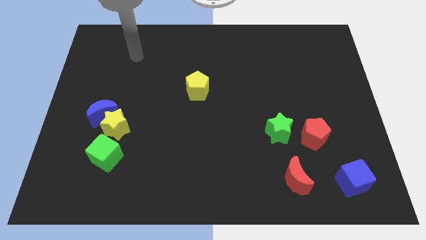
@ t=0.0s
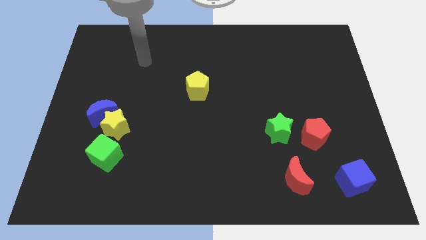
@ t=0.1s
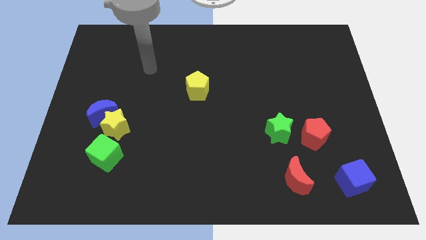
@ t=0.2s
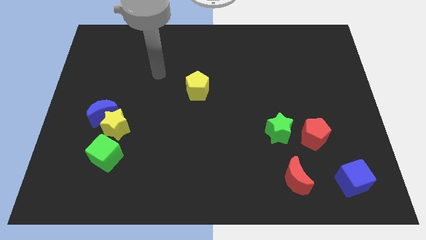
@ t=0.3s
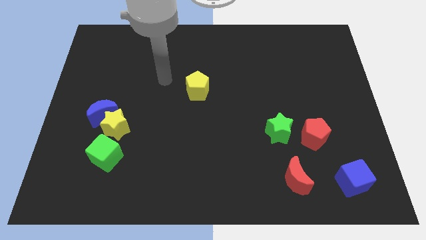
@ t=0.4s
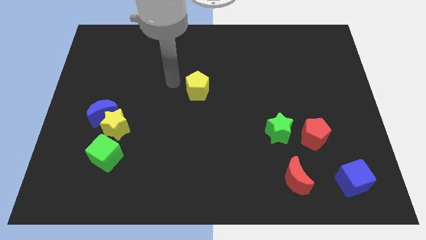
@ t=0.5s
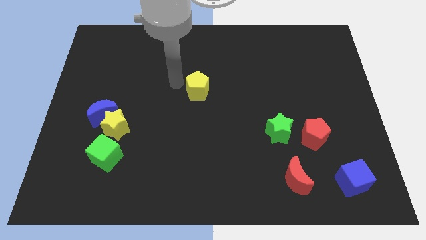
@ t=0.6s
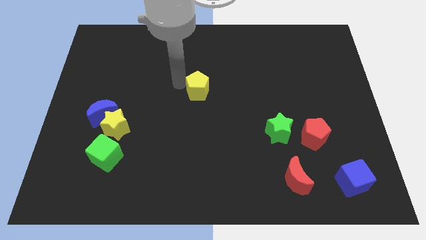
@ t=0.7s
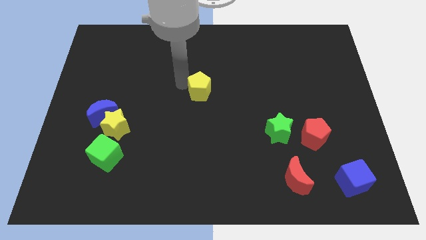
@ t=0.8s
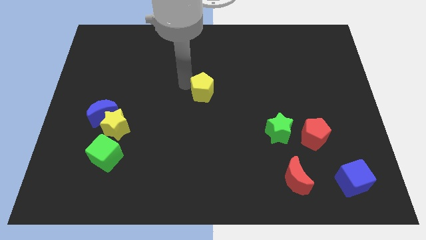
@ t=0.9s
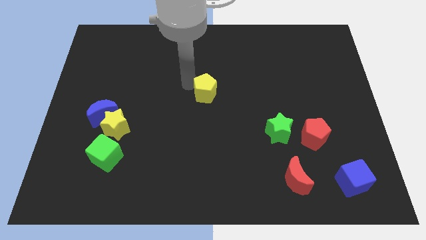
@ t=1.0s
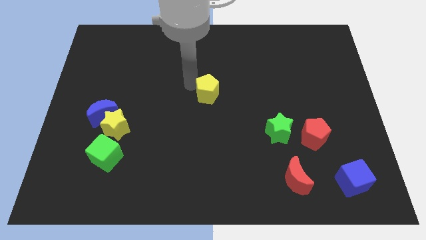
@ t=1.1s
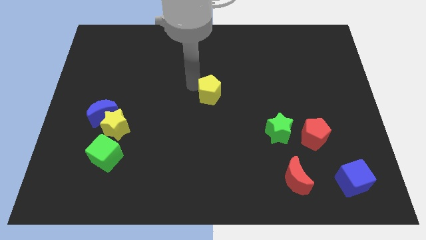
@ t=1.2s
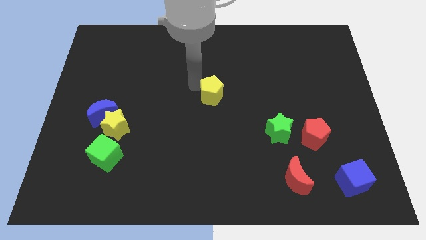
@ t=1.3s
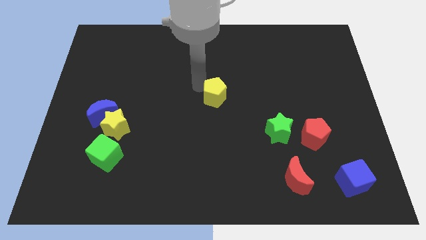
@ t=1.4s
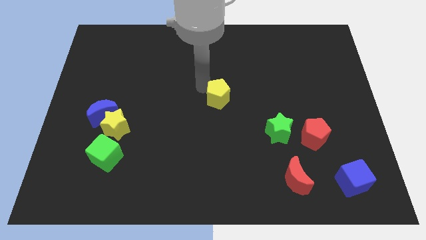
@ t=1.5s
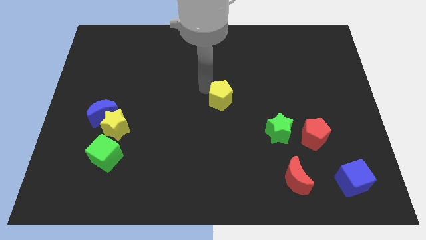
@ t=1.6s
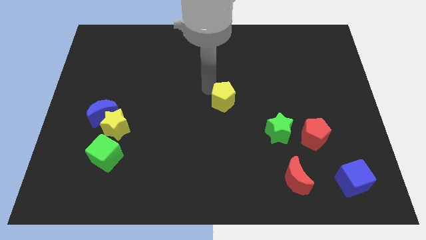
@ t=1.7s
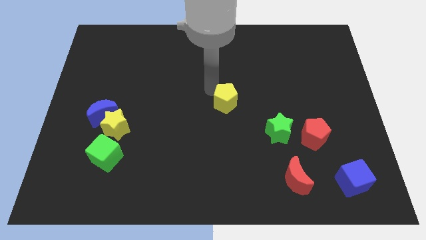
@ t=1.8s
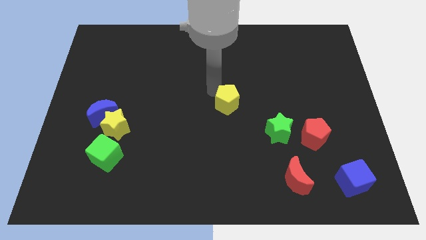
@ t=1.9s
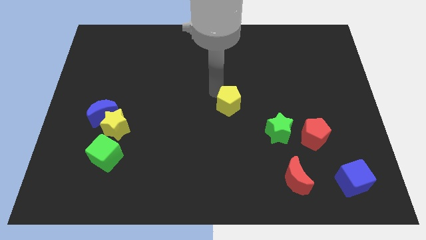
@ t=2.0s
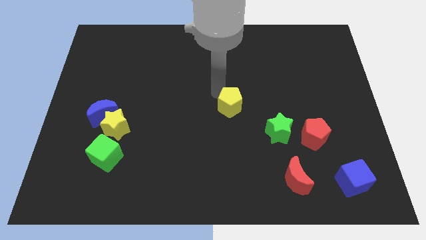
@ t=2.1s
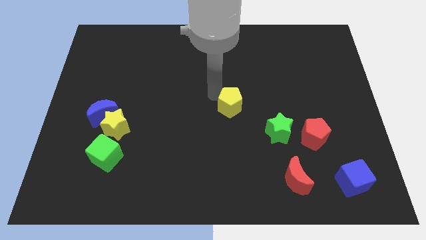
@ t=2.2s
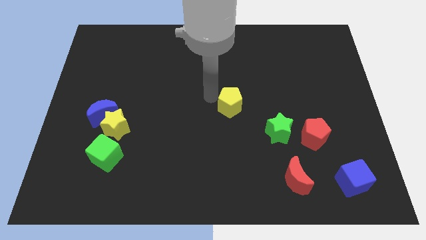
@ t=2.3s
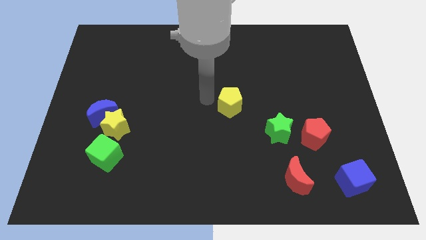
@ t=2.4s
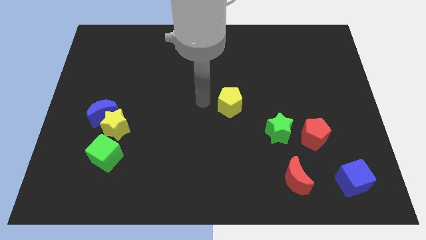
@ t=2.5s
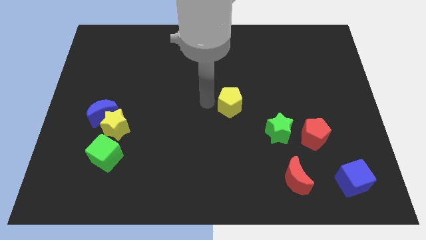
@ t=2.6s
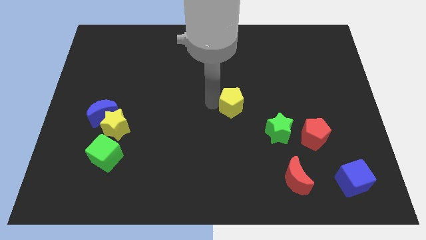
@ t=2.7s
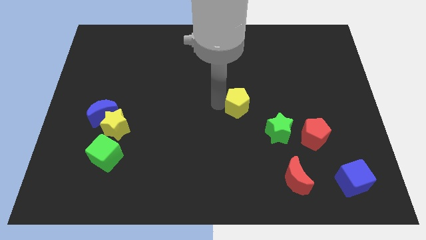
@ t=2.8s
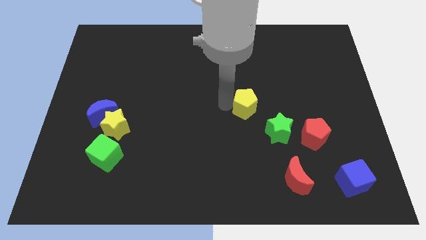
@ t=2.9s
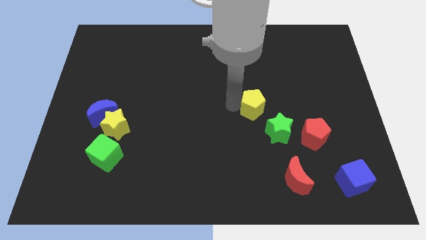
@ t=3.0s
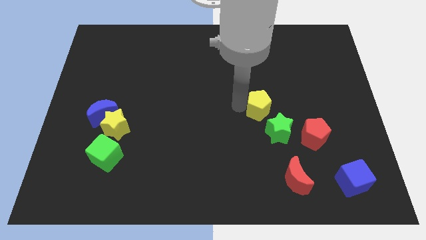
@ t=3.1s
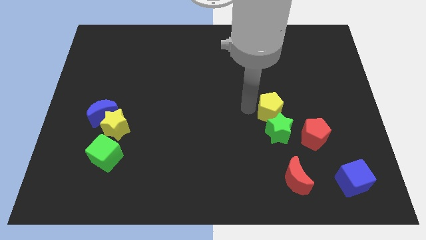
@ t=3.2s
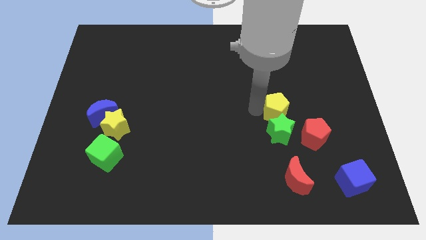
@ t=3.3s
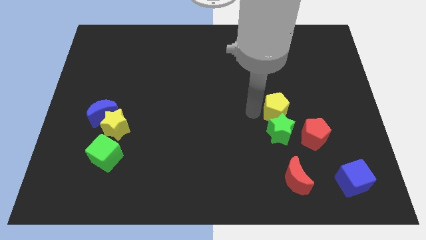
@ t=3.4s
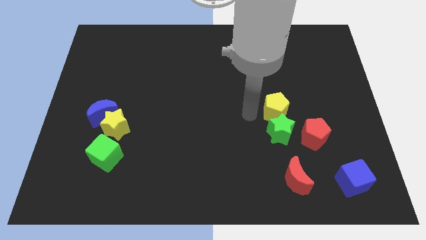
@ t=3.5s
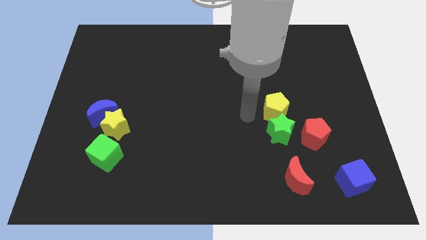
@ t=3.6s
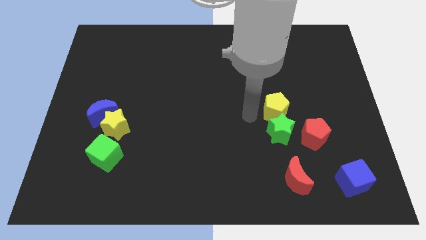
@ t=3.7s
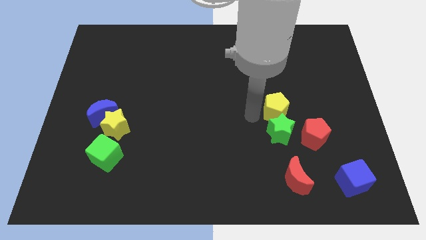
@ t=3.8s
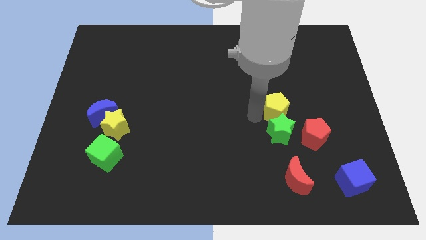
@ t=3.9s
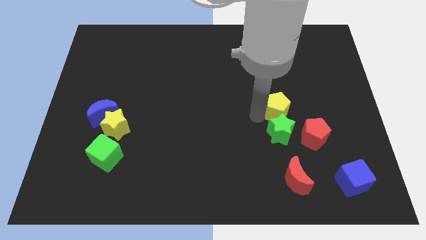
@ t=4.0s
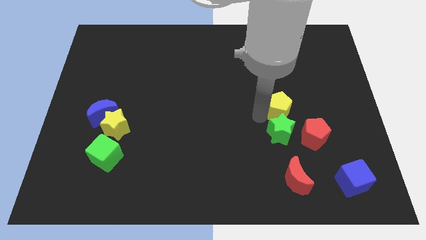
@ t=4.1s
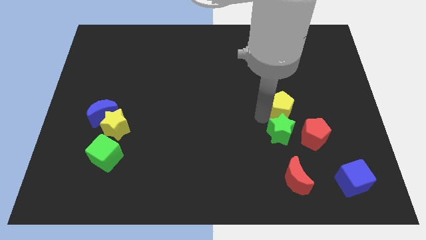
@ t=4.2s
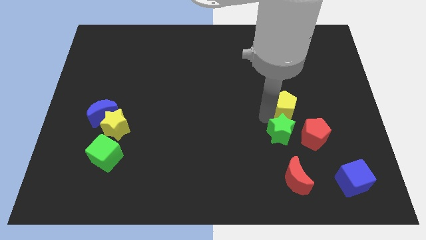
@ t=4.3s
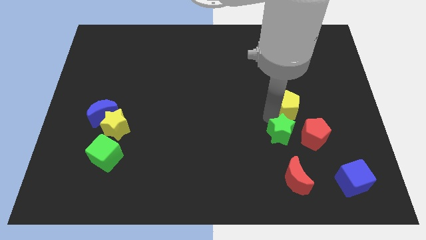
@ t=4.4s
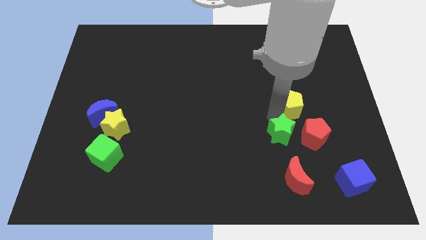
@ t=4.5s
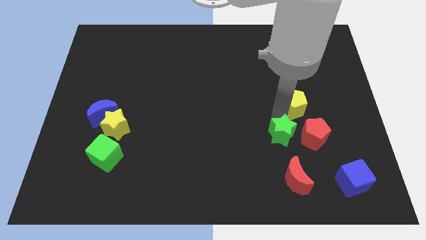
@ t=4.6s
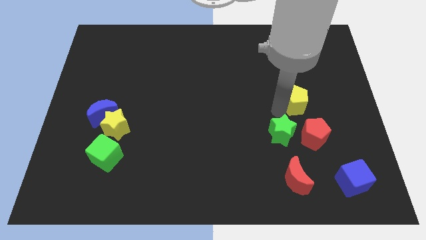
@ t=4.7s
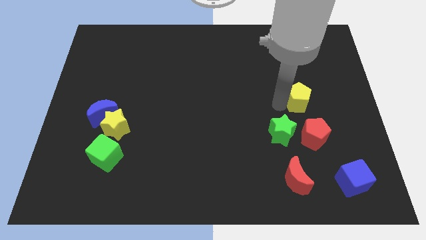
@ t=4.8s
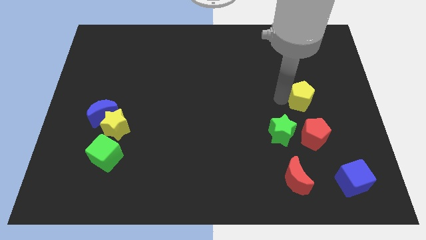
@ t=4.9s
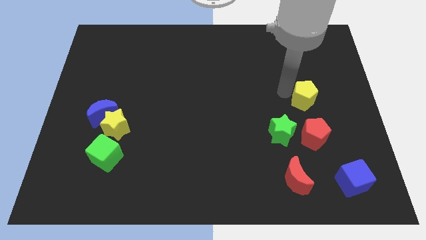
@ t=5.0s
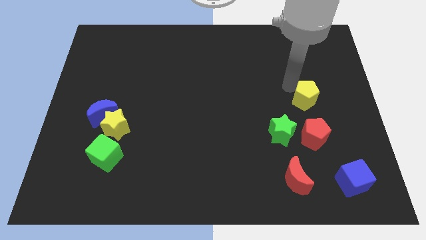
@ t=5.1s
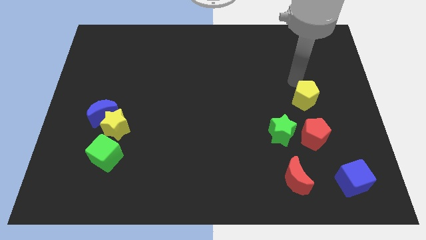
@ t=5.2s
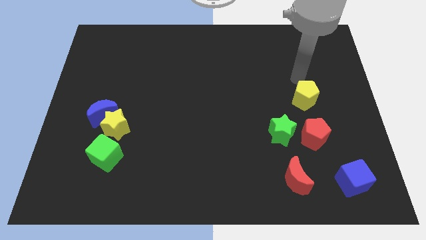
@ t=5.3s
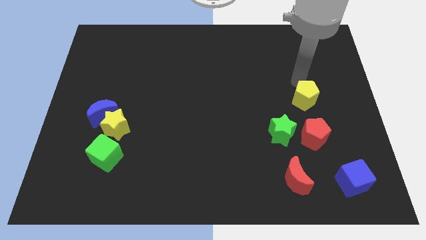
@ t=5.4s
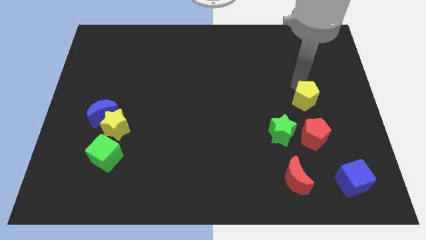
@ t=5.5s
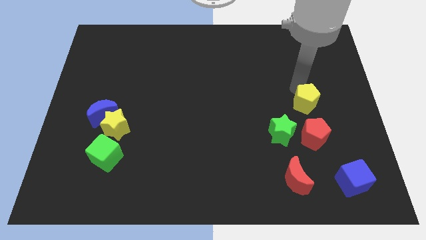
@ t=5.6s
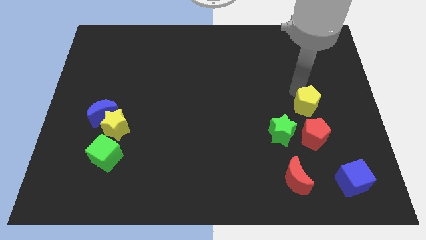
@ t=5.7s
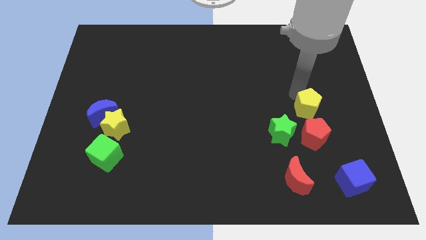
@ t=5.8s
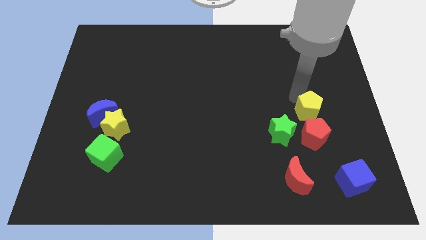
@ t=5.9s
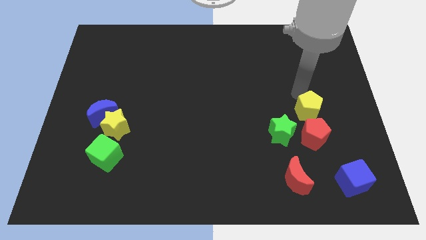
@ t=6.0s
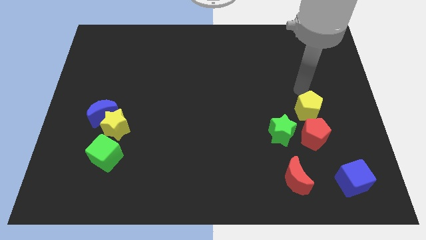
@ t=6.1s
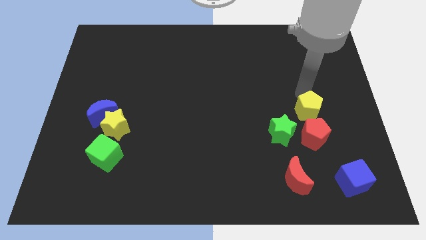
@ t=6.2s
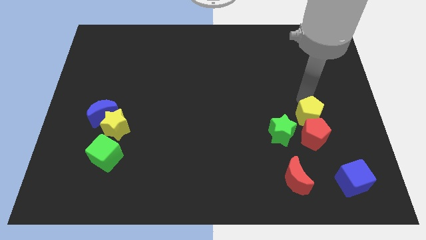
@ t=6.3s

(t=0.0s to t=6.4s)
push the yellow pentagon towards the red pentagon
